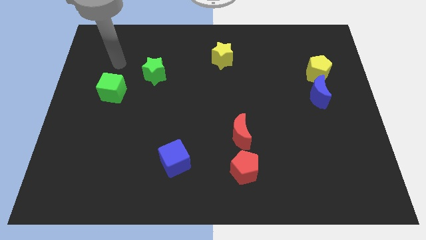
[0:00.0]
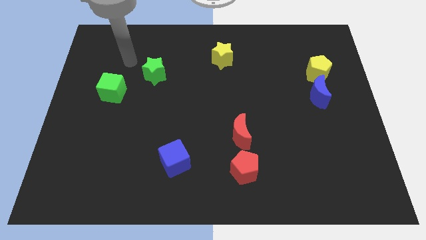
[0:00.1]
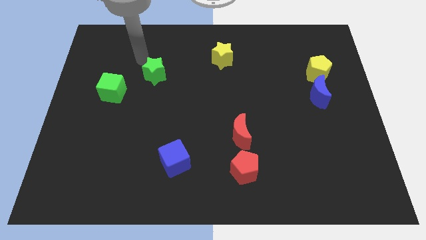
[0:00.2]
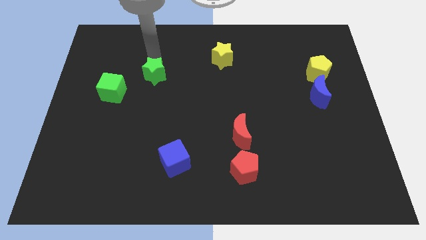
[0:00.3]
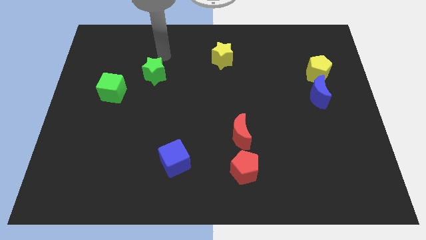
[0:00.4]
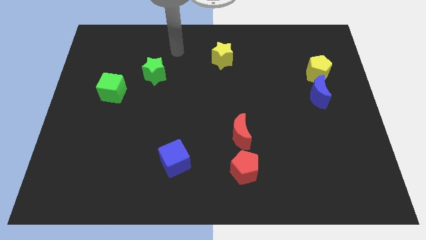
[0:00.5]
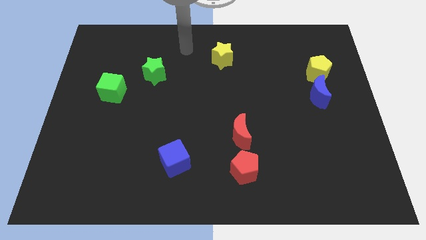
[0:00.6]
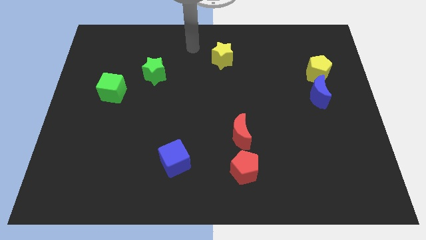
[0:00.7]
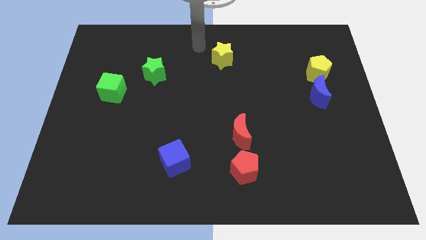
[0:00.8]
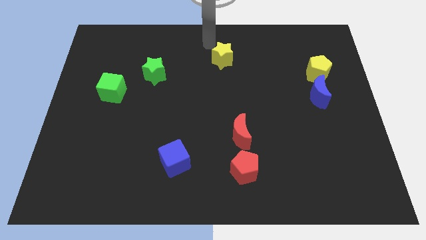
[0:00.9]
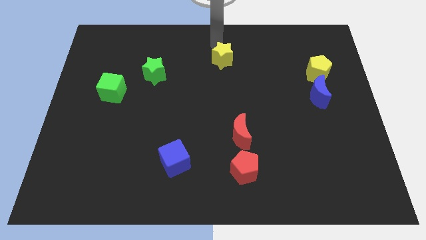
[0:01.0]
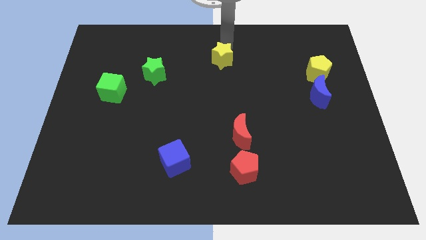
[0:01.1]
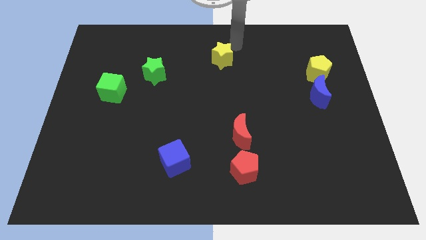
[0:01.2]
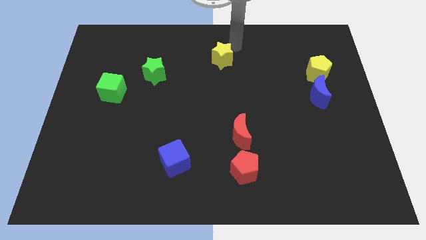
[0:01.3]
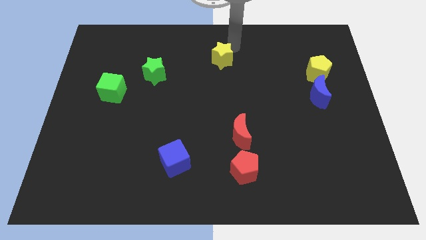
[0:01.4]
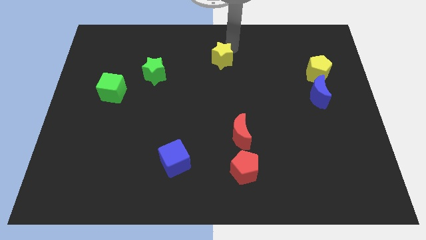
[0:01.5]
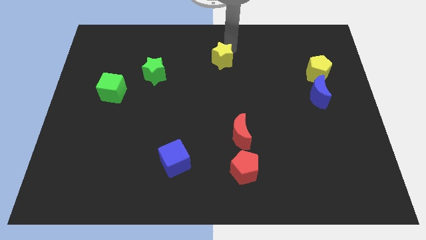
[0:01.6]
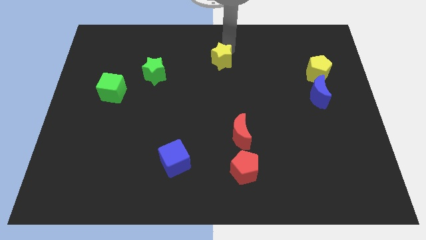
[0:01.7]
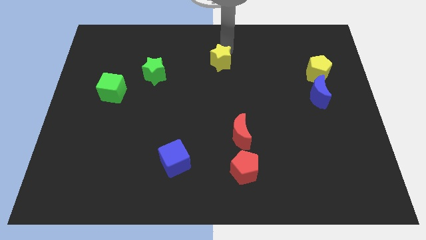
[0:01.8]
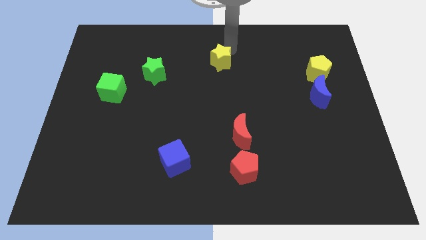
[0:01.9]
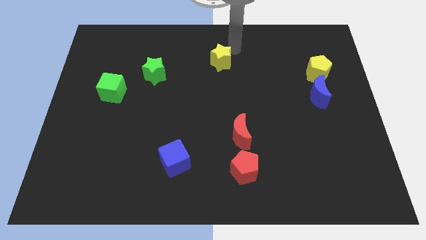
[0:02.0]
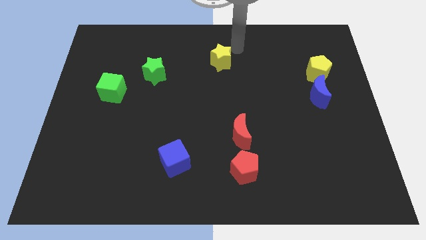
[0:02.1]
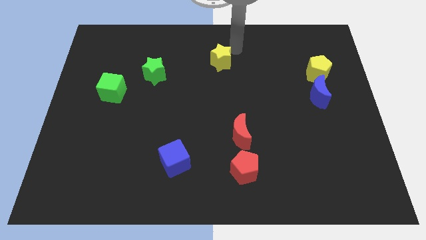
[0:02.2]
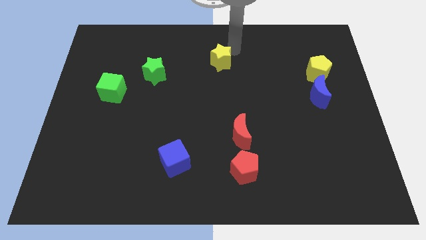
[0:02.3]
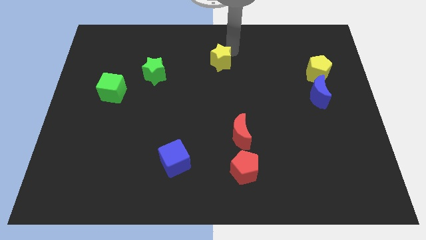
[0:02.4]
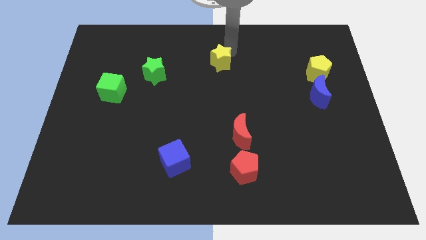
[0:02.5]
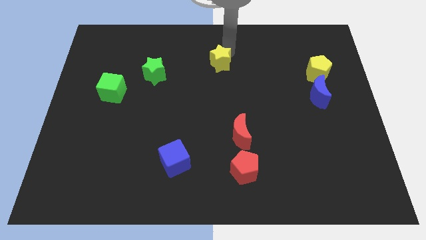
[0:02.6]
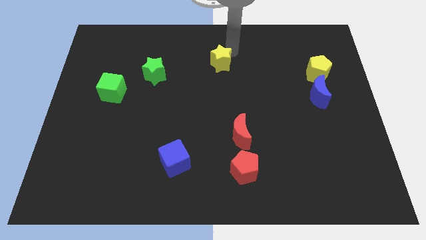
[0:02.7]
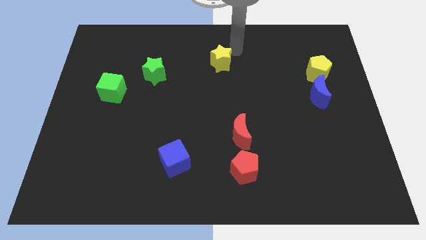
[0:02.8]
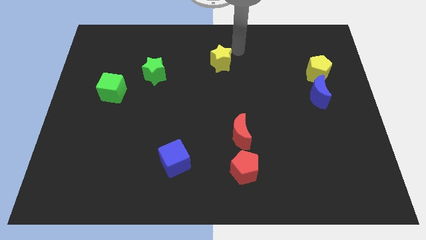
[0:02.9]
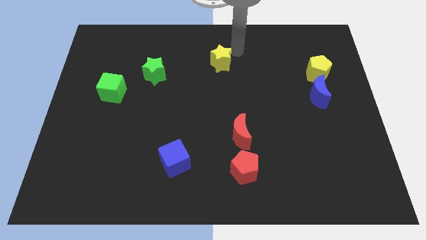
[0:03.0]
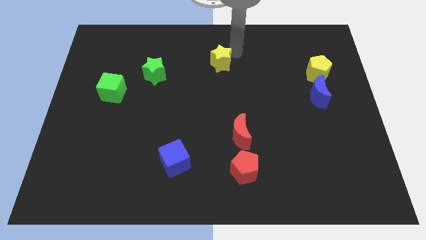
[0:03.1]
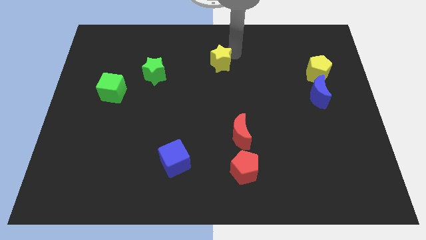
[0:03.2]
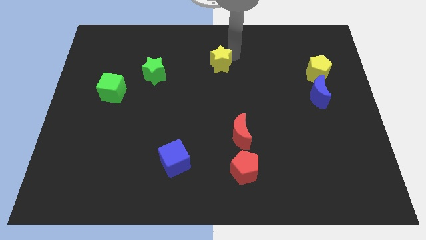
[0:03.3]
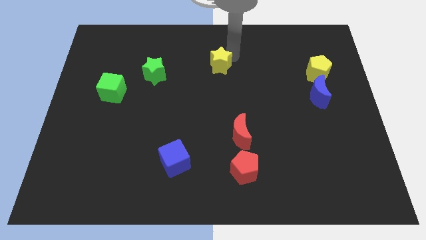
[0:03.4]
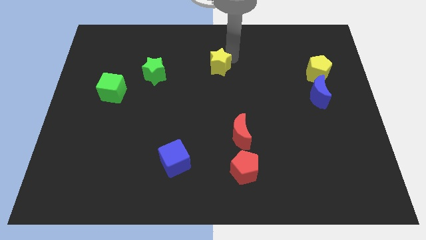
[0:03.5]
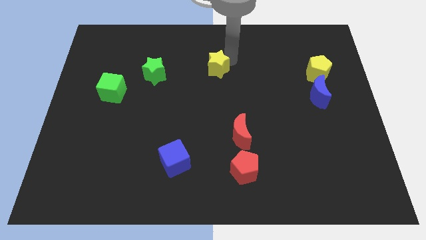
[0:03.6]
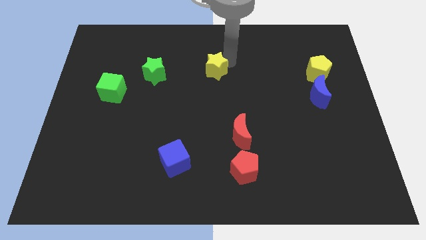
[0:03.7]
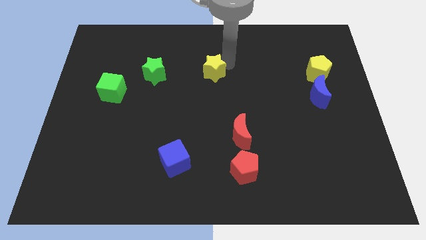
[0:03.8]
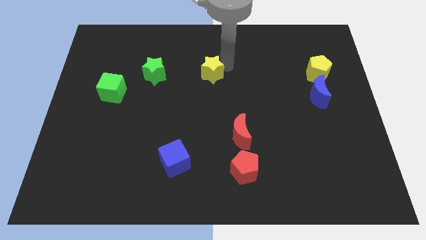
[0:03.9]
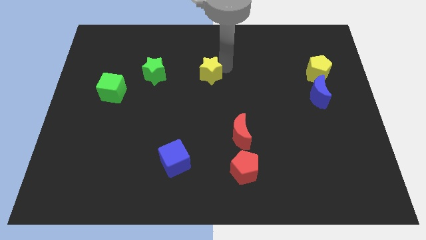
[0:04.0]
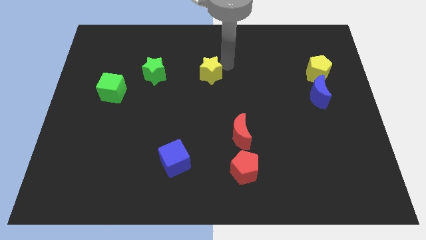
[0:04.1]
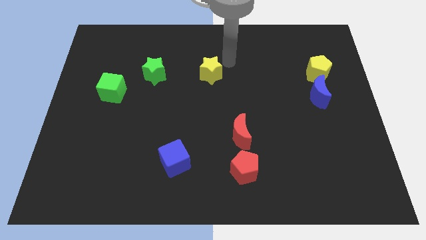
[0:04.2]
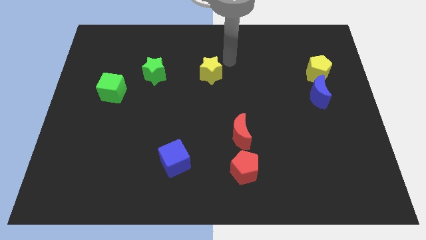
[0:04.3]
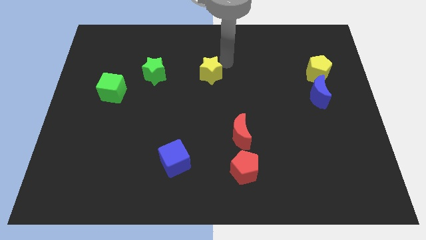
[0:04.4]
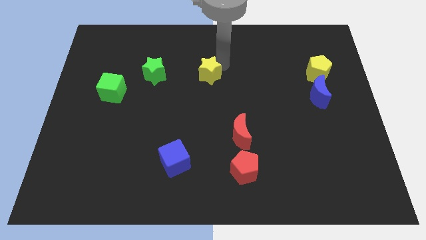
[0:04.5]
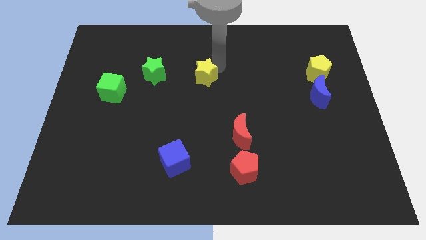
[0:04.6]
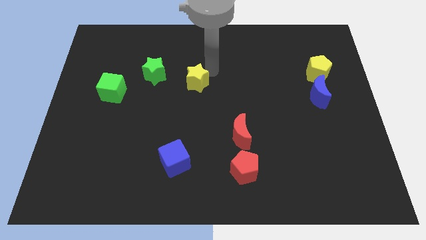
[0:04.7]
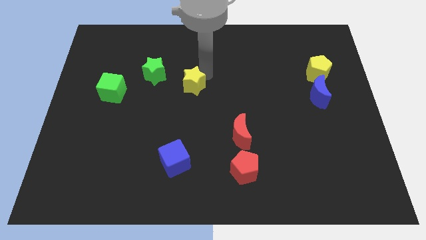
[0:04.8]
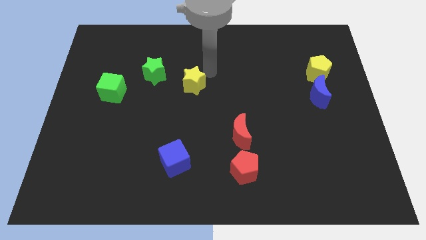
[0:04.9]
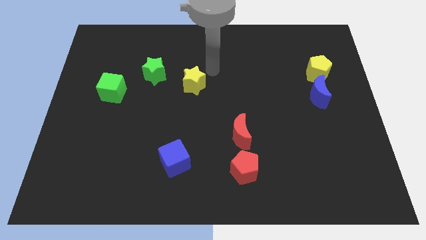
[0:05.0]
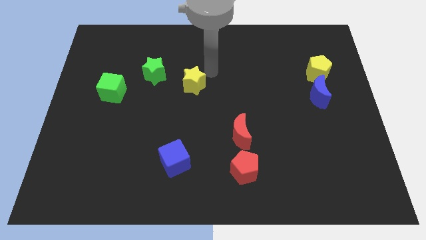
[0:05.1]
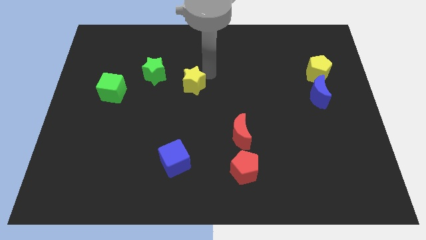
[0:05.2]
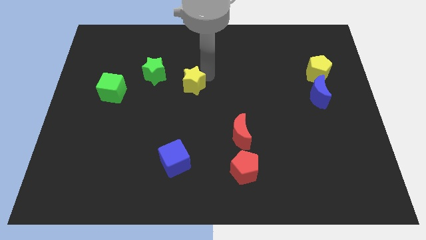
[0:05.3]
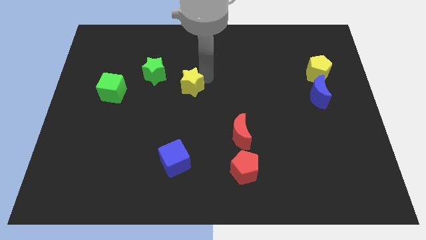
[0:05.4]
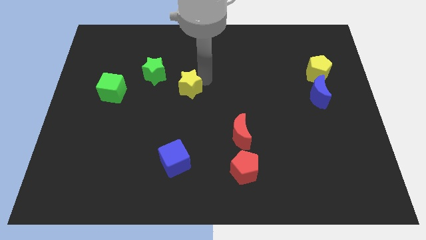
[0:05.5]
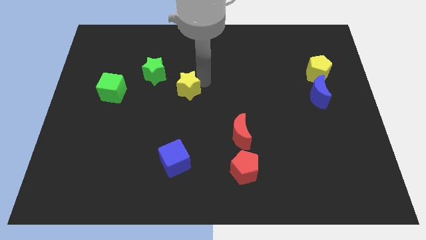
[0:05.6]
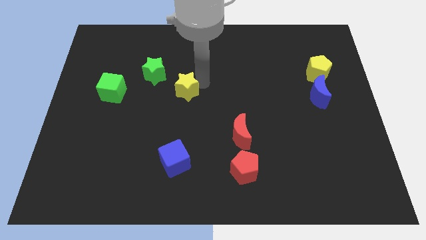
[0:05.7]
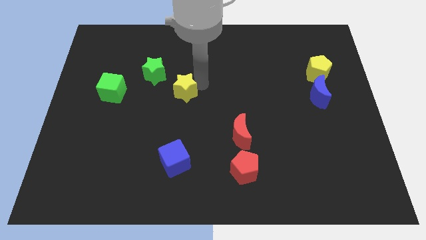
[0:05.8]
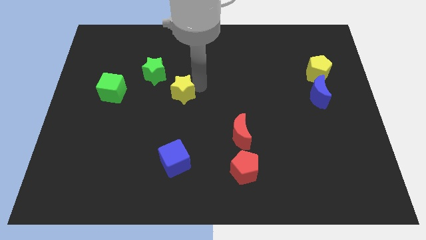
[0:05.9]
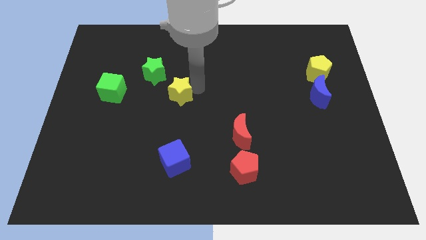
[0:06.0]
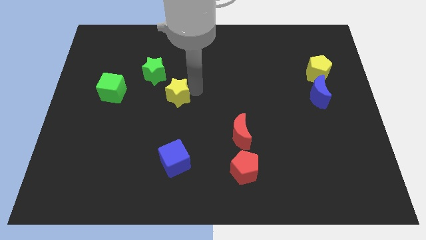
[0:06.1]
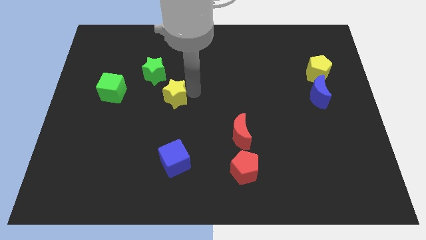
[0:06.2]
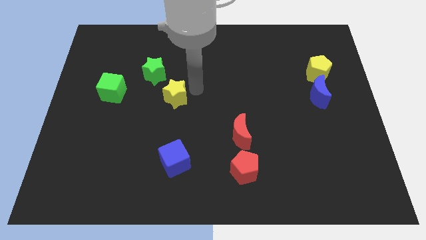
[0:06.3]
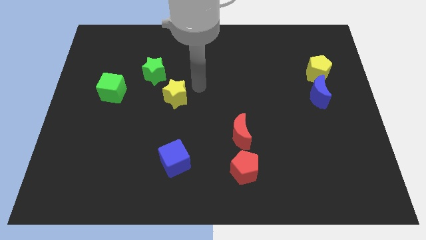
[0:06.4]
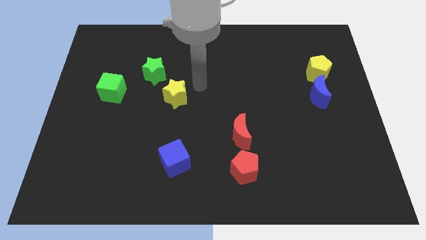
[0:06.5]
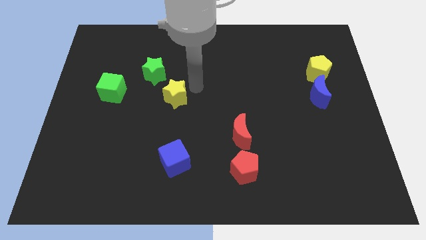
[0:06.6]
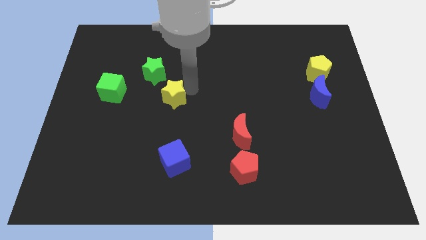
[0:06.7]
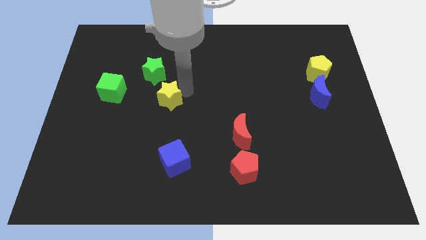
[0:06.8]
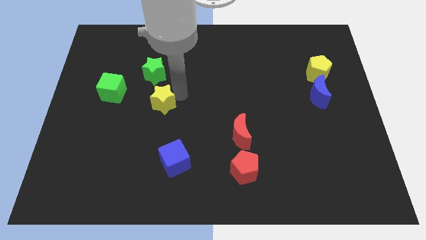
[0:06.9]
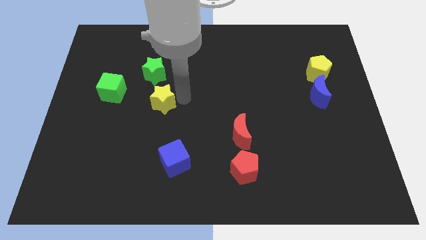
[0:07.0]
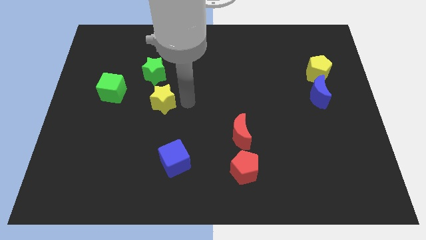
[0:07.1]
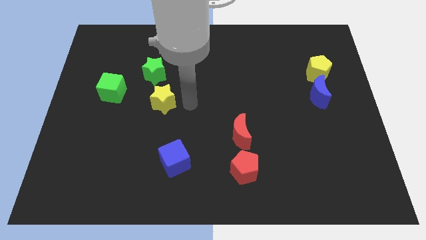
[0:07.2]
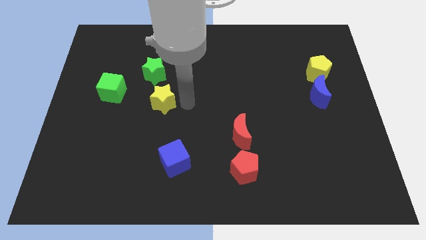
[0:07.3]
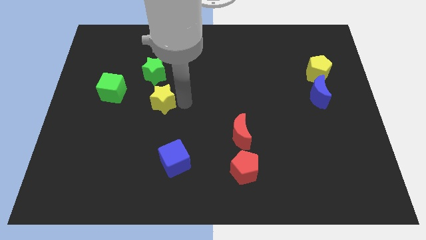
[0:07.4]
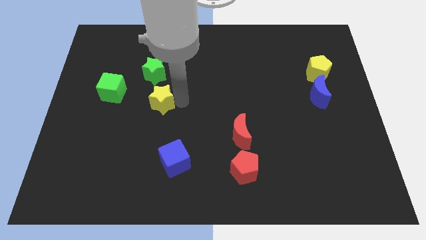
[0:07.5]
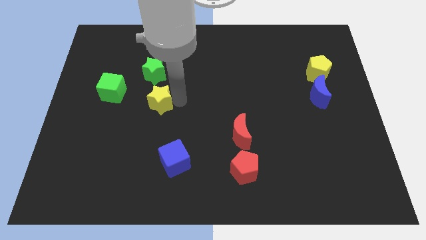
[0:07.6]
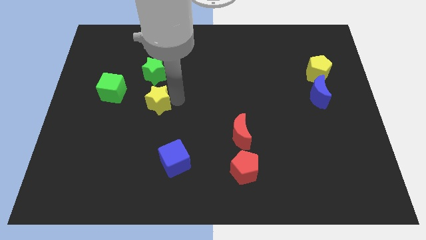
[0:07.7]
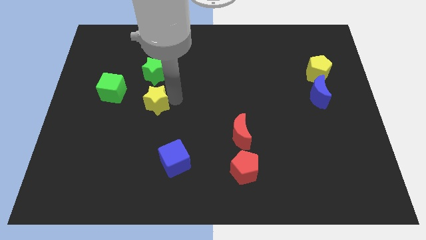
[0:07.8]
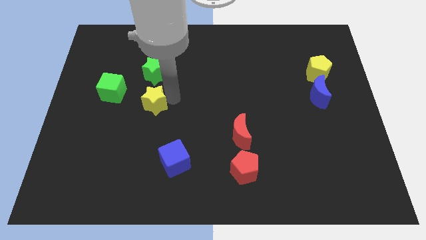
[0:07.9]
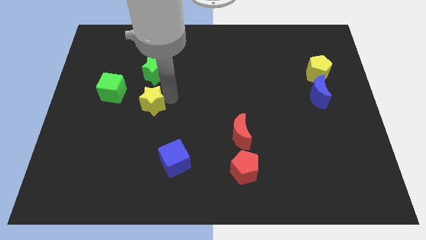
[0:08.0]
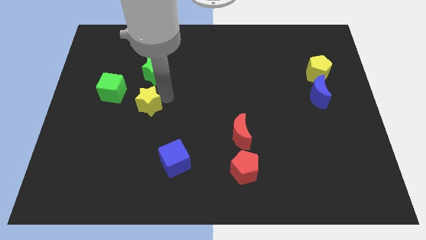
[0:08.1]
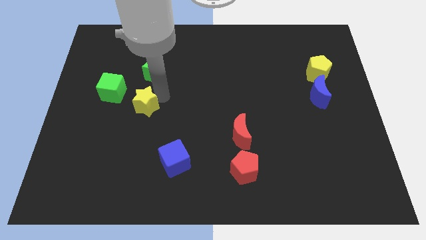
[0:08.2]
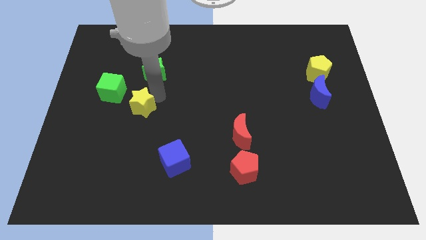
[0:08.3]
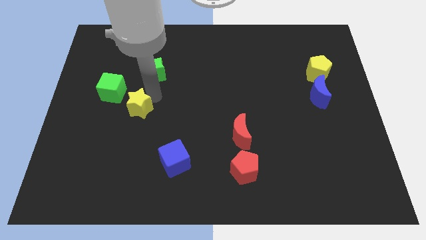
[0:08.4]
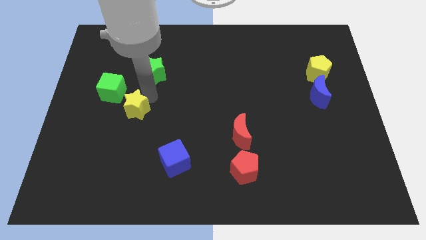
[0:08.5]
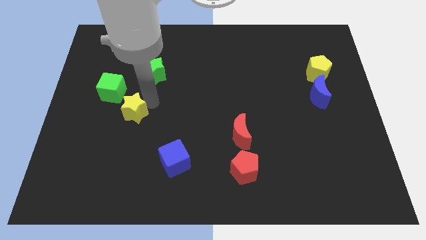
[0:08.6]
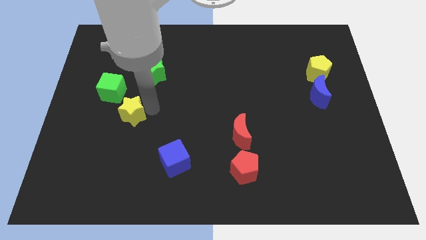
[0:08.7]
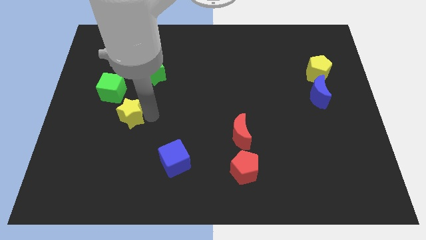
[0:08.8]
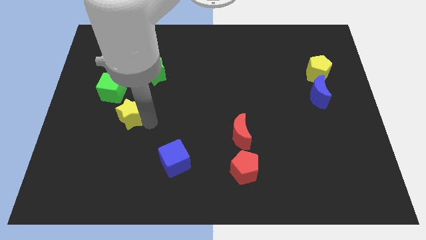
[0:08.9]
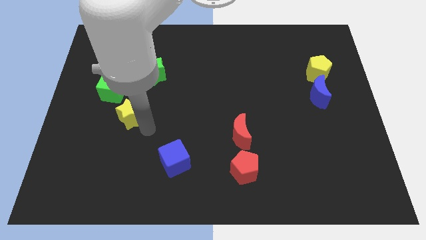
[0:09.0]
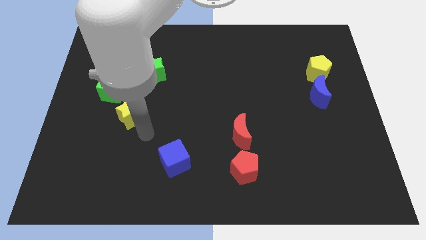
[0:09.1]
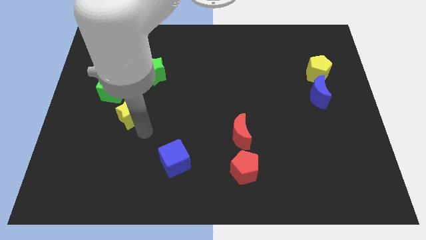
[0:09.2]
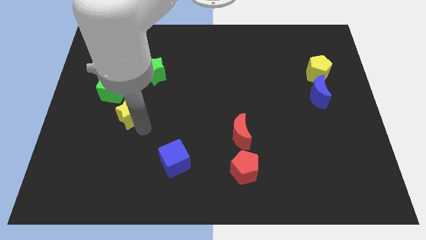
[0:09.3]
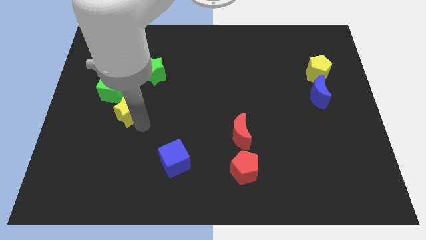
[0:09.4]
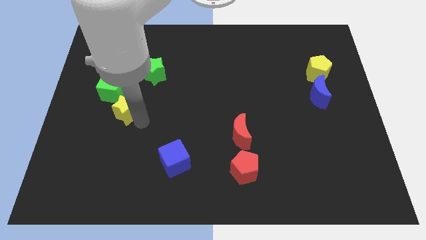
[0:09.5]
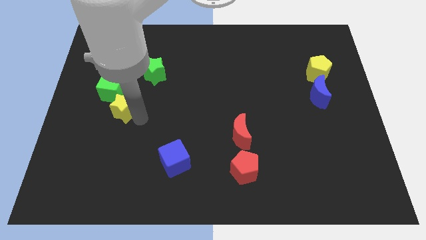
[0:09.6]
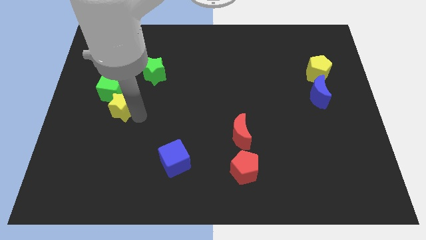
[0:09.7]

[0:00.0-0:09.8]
put the yellow star next to the green cube
